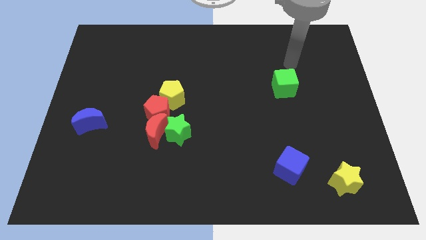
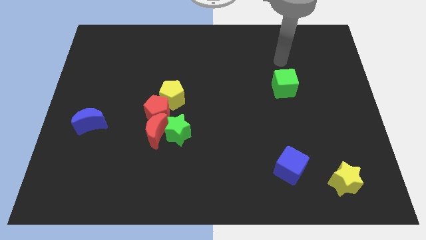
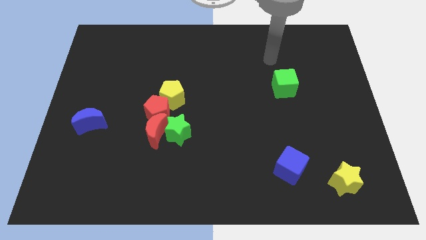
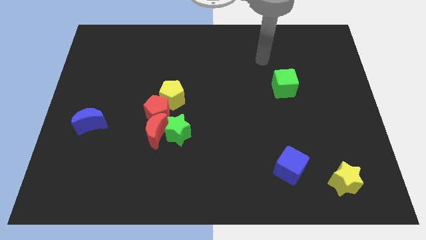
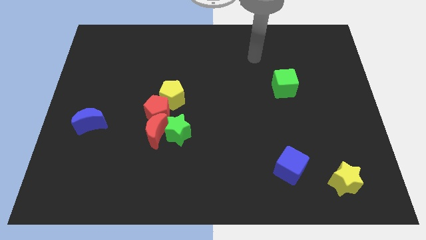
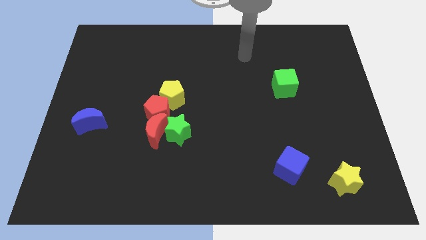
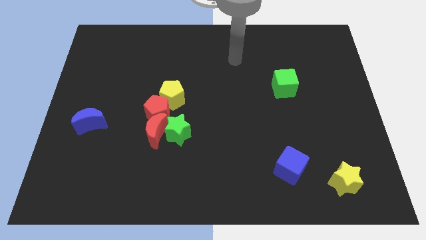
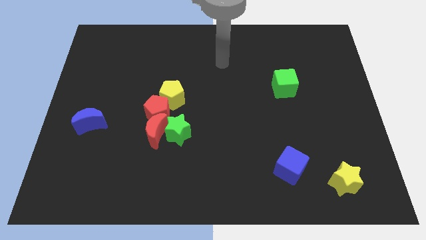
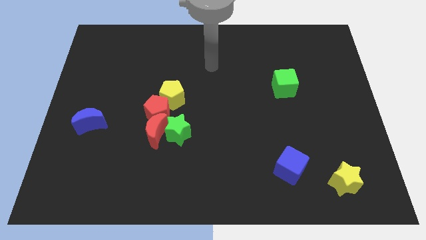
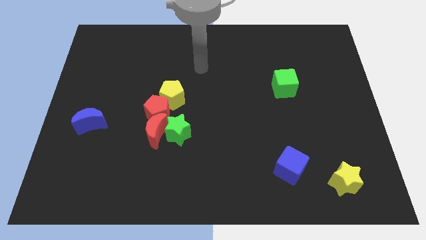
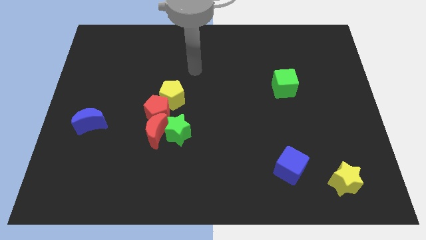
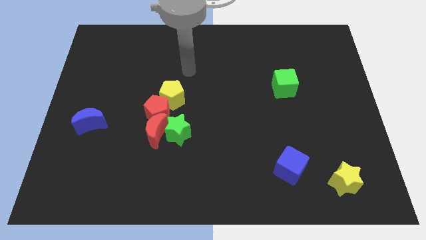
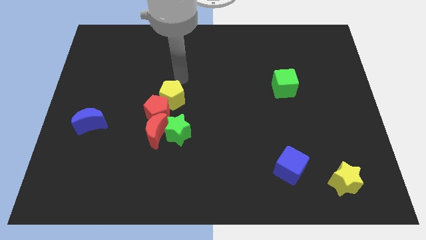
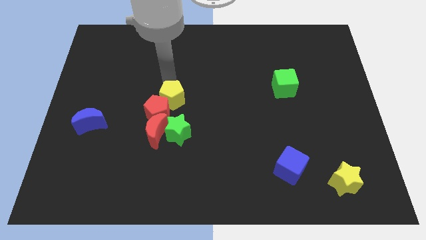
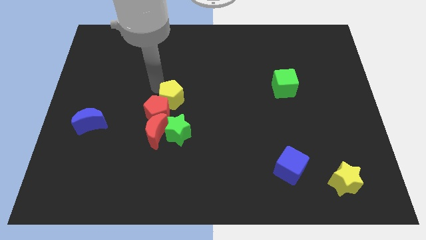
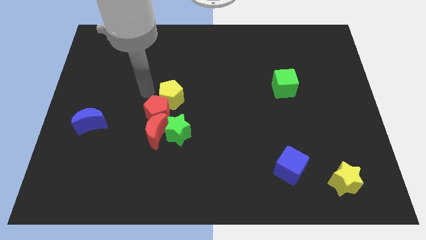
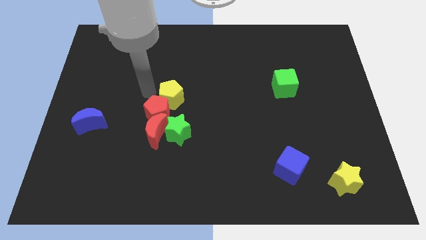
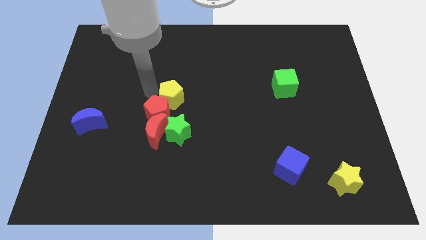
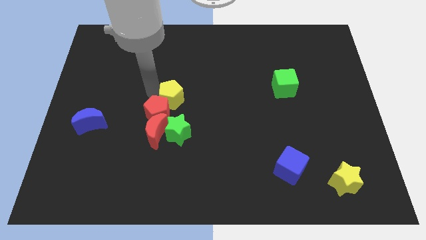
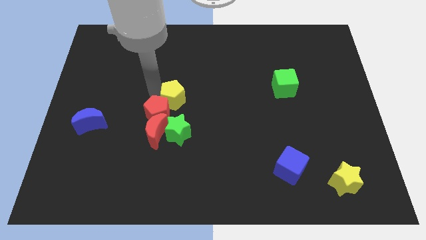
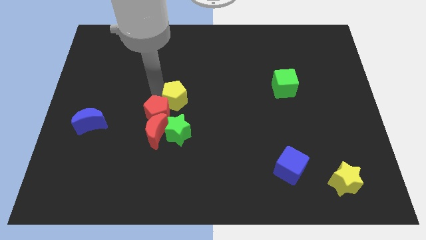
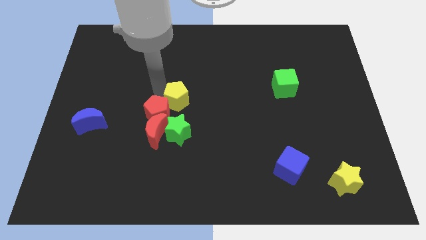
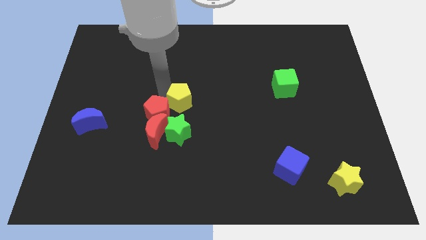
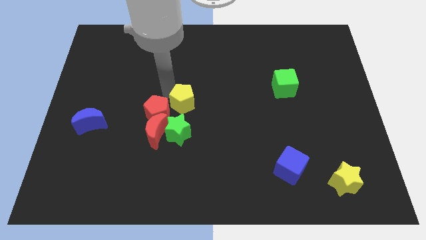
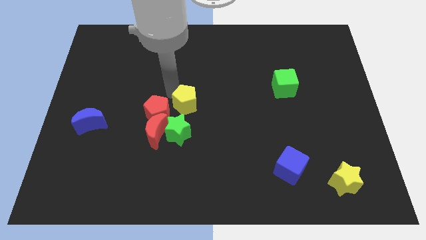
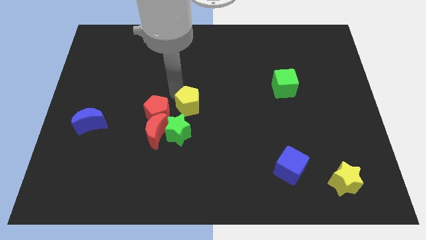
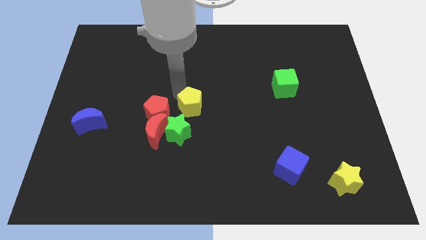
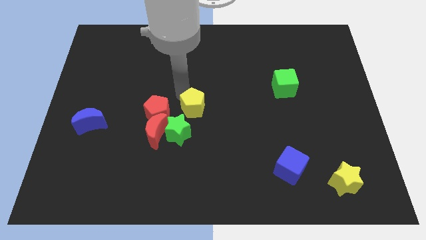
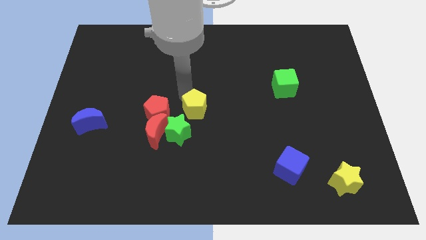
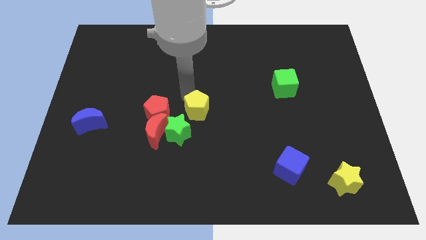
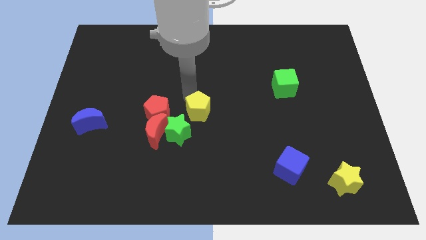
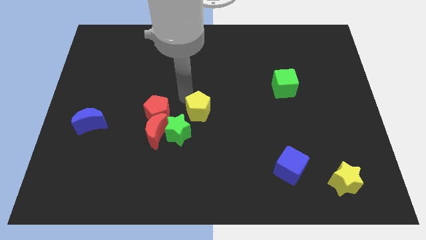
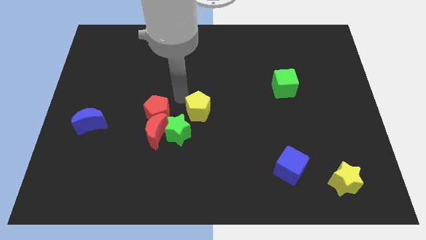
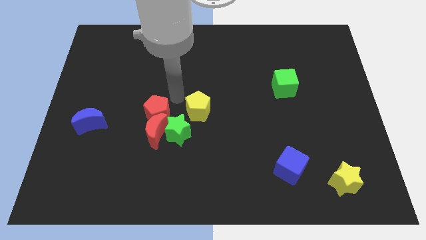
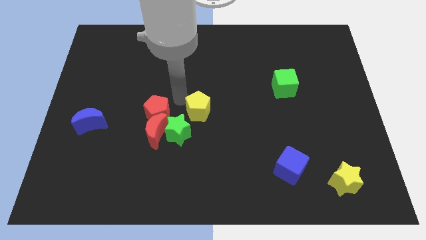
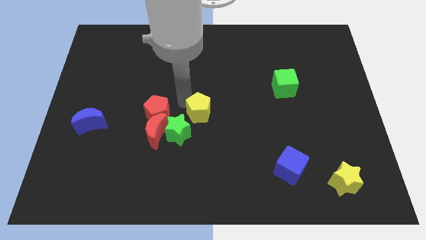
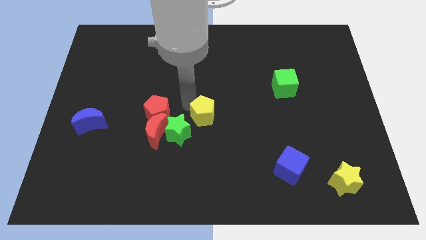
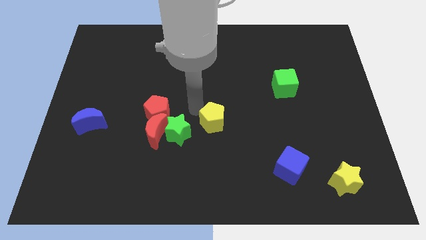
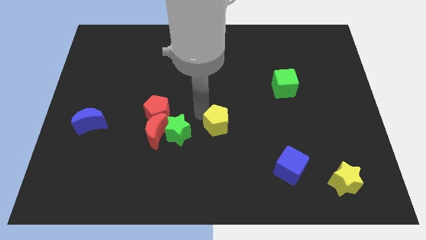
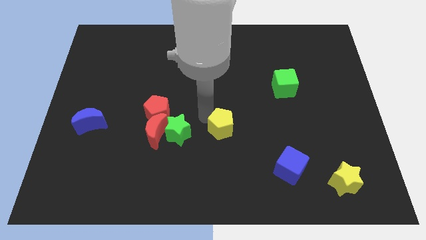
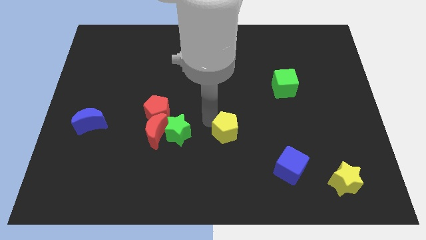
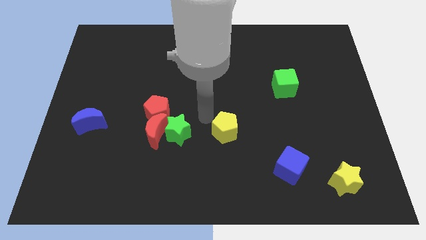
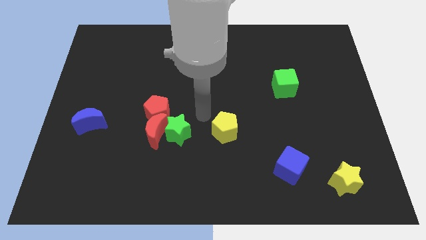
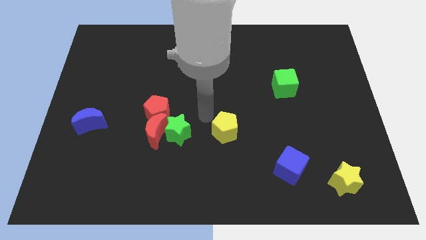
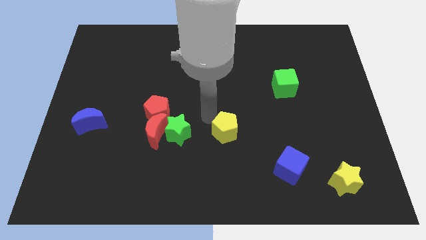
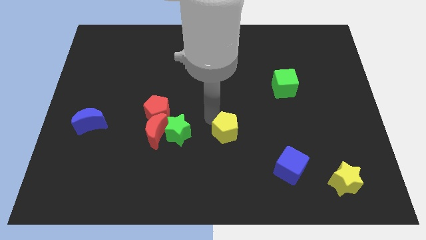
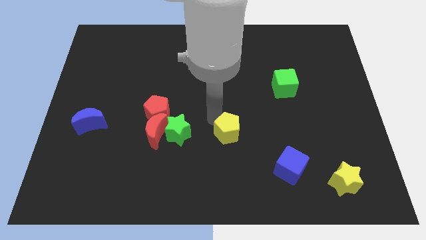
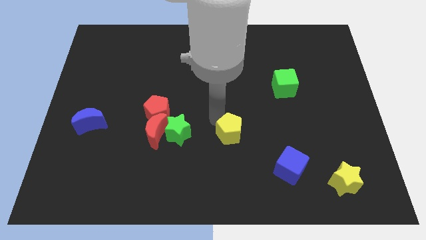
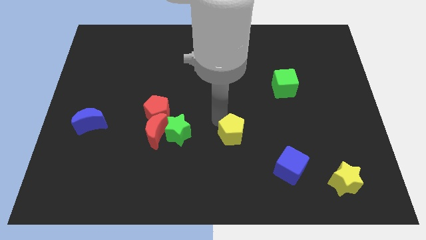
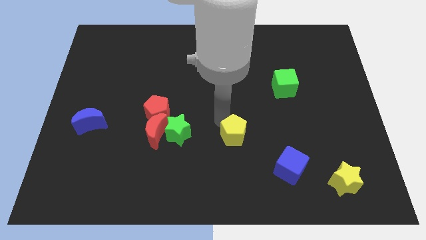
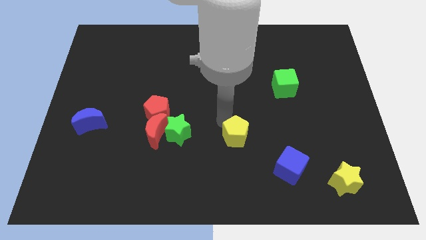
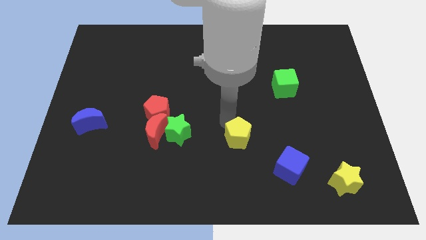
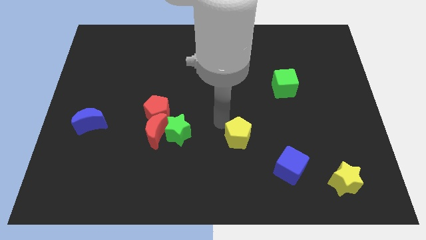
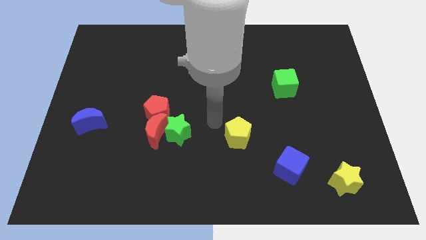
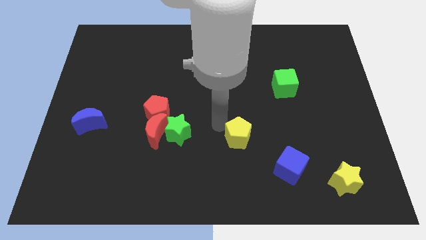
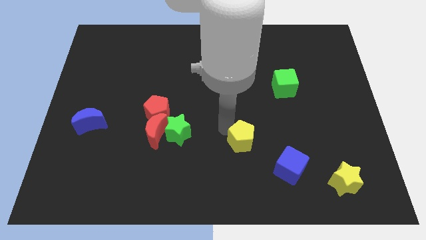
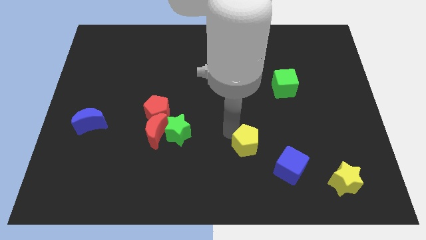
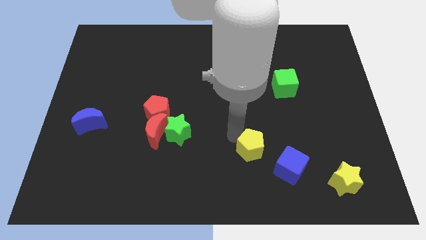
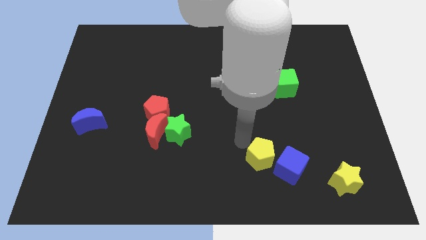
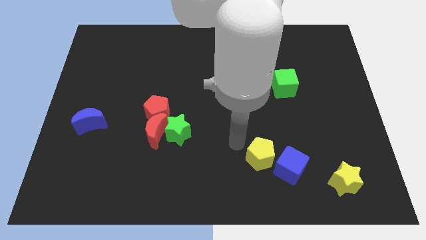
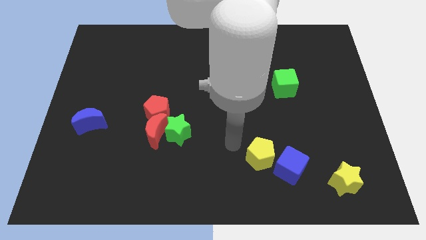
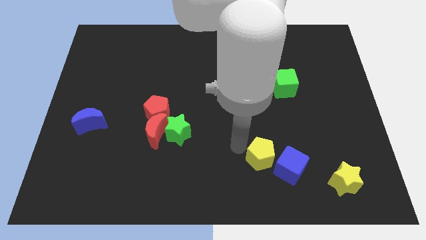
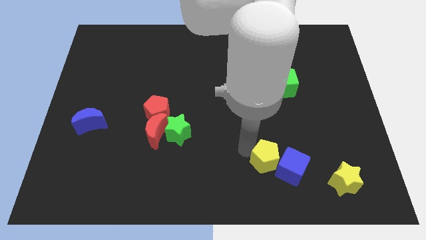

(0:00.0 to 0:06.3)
slide the yellow pentagon next to the blue cube
